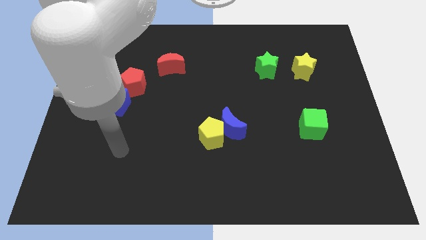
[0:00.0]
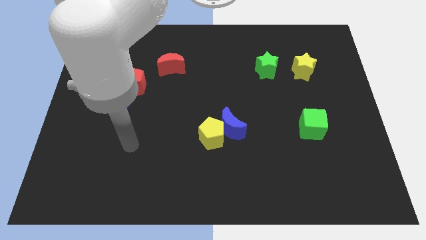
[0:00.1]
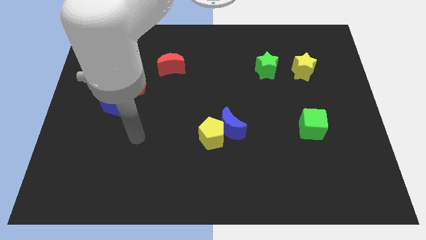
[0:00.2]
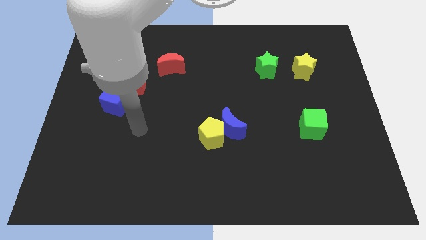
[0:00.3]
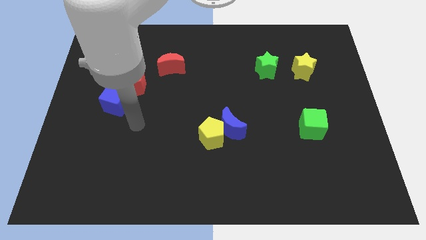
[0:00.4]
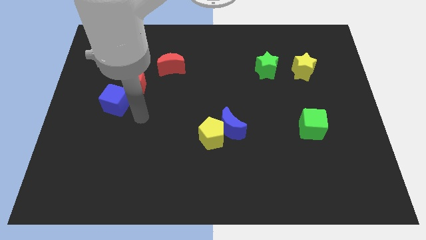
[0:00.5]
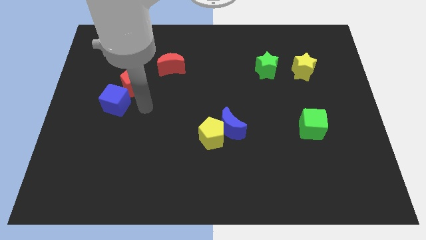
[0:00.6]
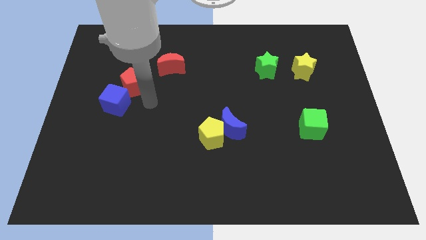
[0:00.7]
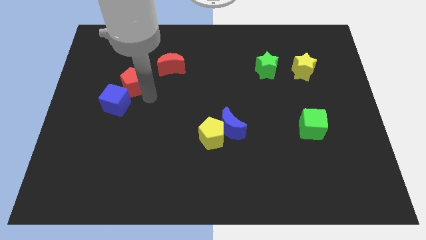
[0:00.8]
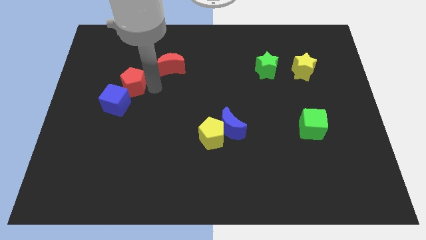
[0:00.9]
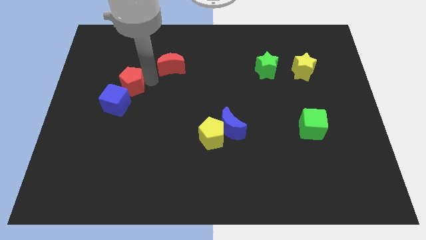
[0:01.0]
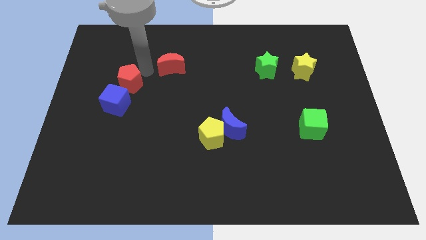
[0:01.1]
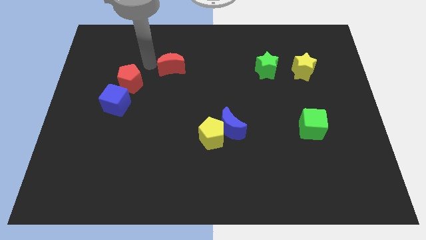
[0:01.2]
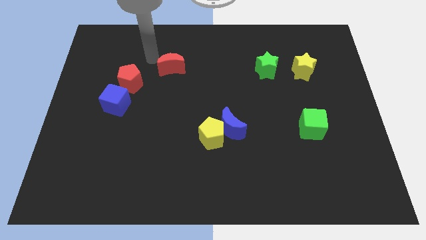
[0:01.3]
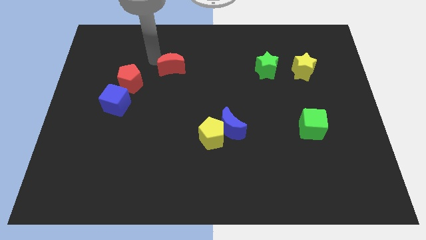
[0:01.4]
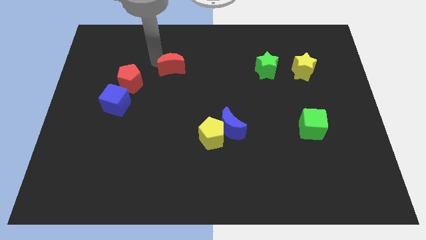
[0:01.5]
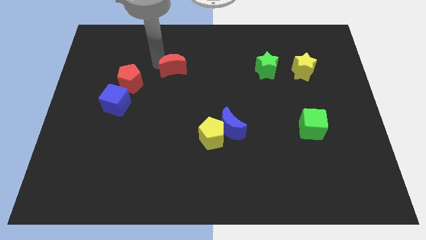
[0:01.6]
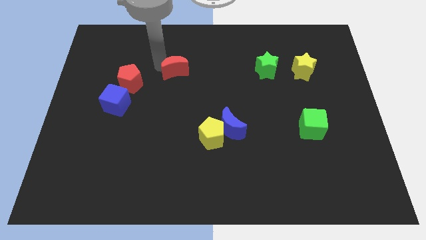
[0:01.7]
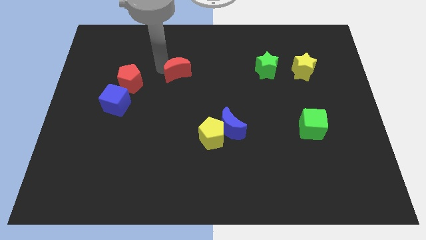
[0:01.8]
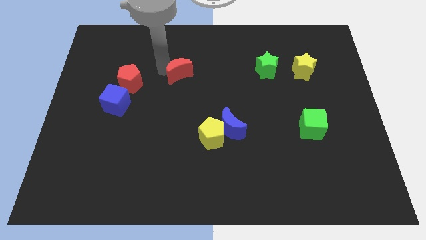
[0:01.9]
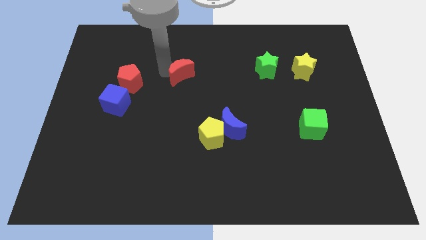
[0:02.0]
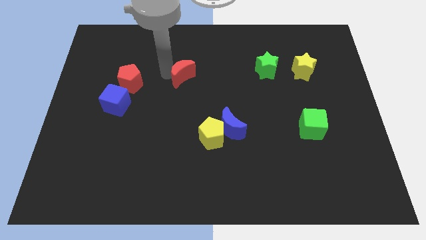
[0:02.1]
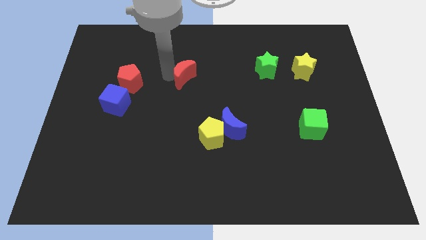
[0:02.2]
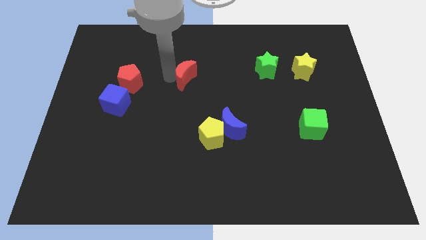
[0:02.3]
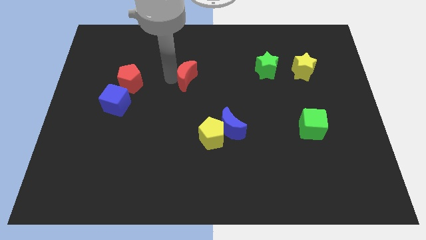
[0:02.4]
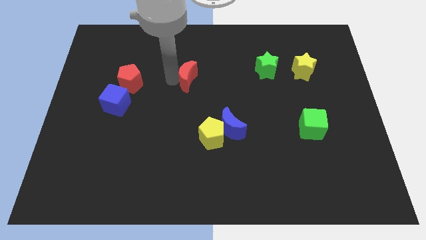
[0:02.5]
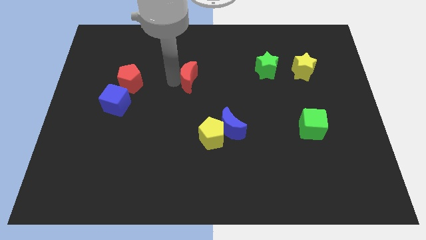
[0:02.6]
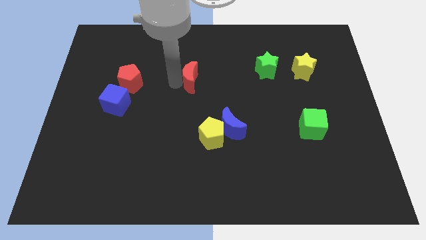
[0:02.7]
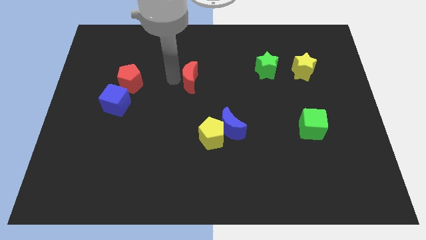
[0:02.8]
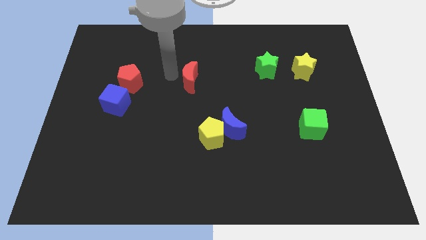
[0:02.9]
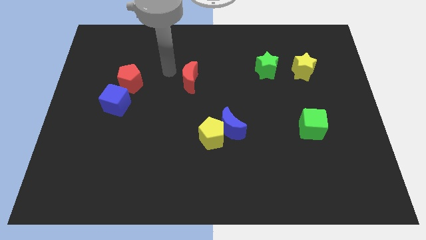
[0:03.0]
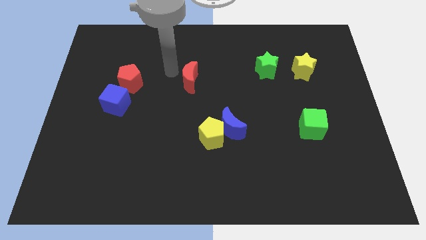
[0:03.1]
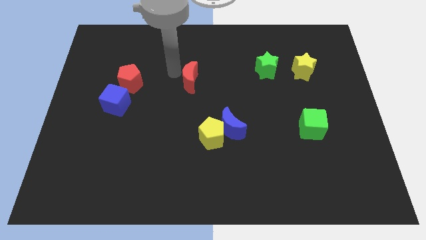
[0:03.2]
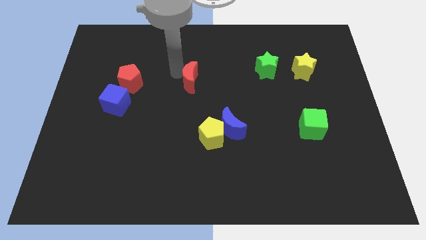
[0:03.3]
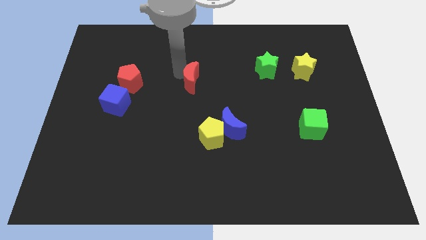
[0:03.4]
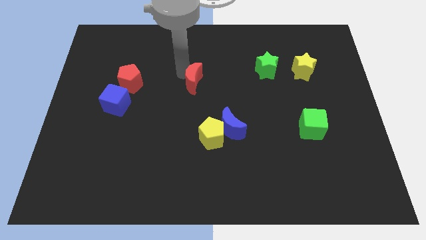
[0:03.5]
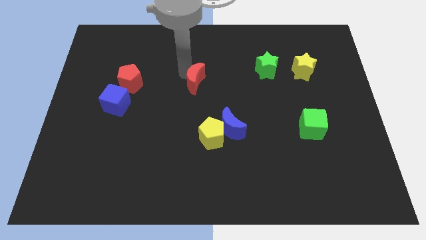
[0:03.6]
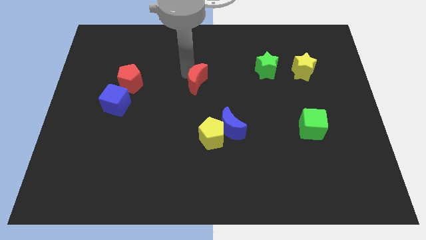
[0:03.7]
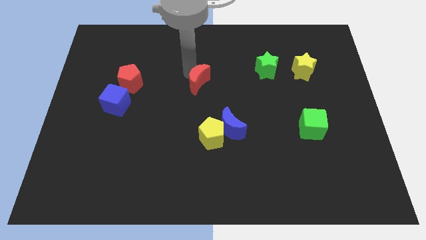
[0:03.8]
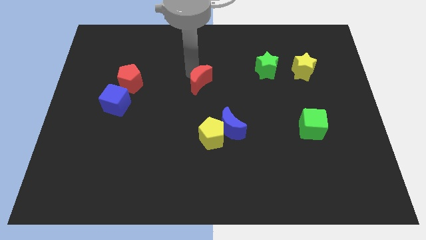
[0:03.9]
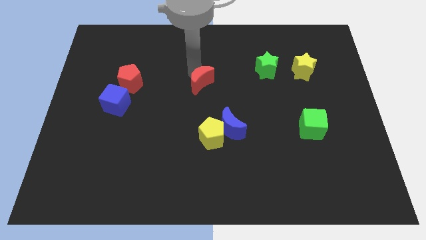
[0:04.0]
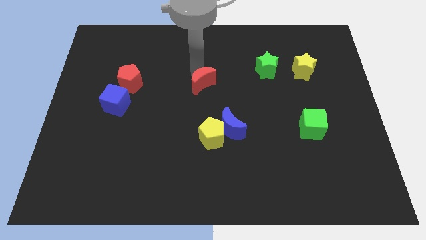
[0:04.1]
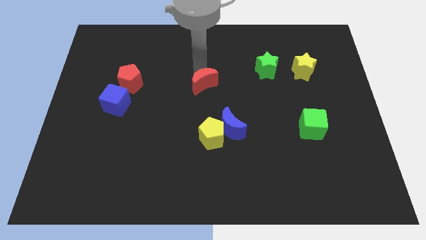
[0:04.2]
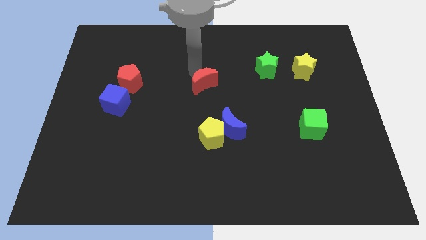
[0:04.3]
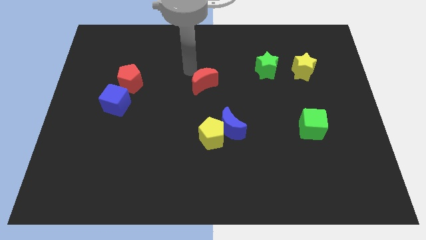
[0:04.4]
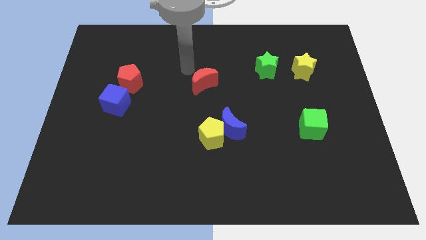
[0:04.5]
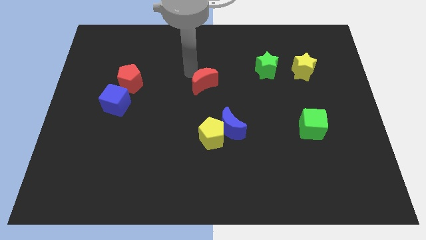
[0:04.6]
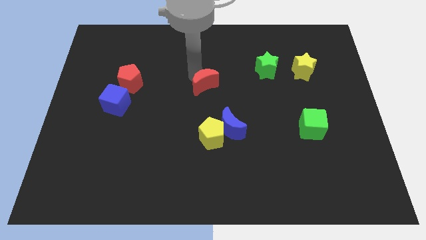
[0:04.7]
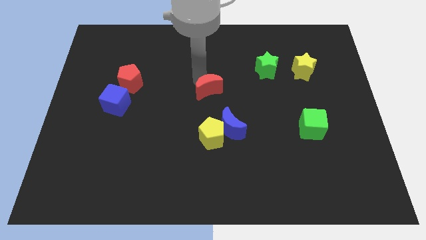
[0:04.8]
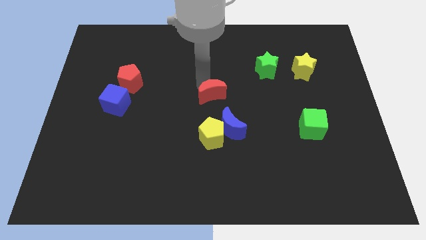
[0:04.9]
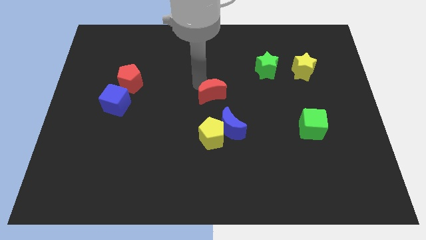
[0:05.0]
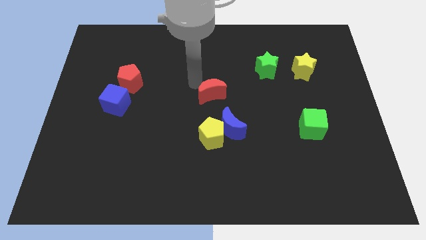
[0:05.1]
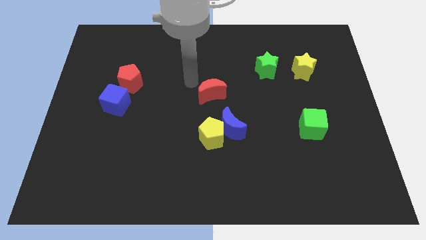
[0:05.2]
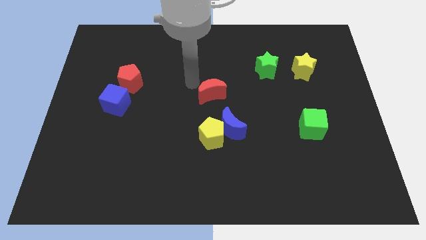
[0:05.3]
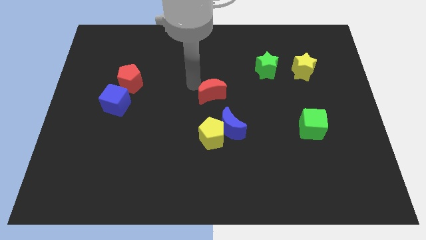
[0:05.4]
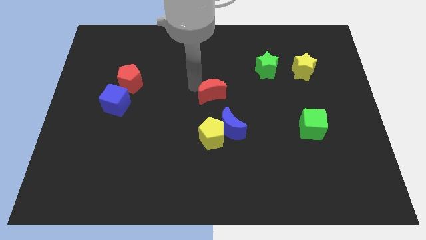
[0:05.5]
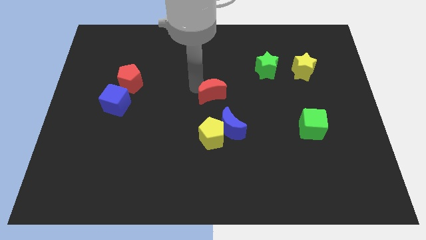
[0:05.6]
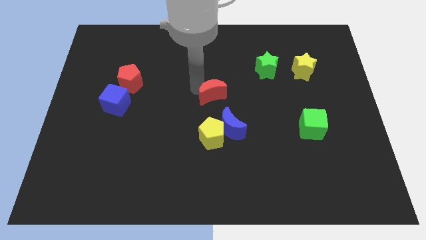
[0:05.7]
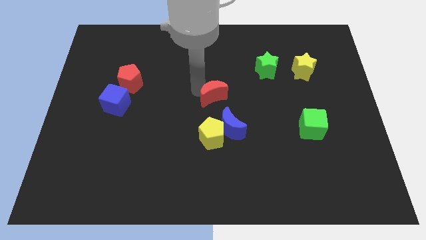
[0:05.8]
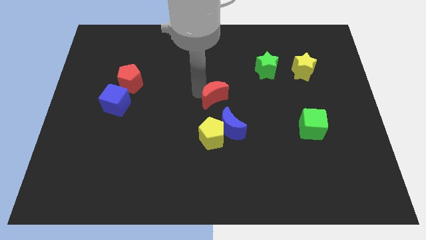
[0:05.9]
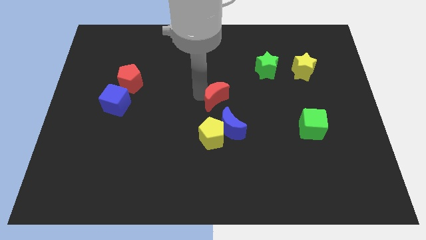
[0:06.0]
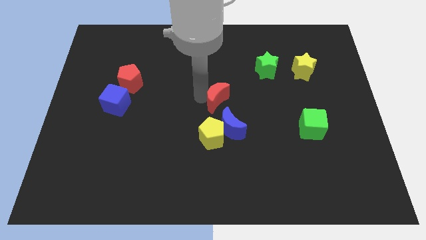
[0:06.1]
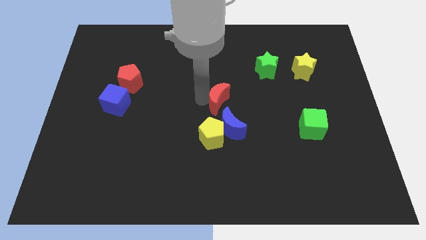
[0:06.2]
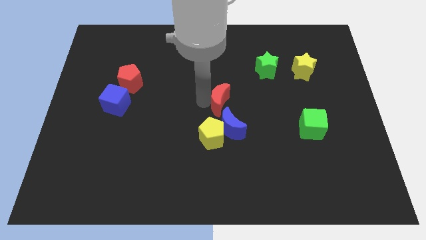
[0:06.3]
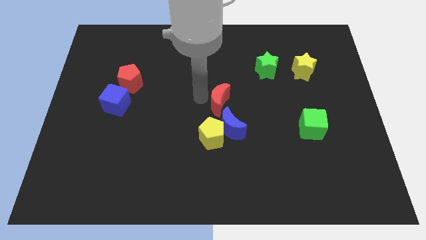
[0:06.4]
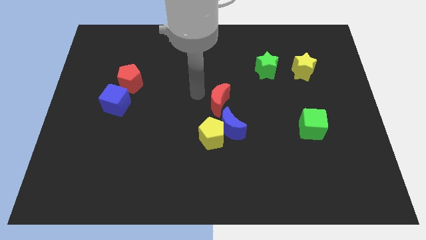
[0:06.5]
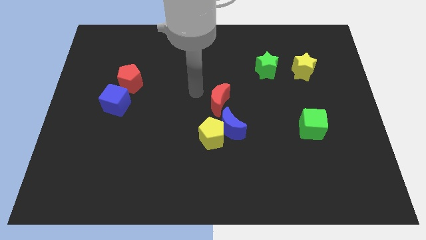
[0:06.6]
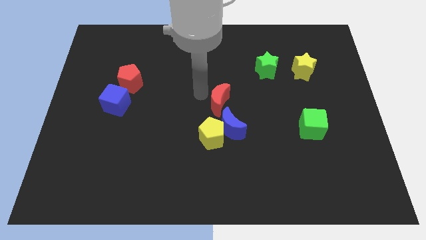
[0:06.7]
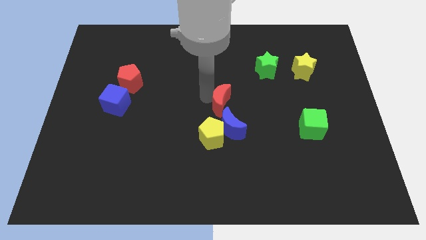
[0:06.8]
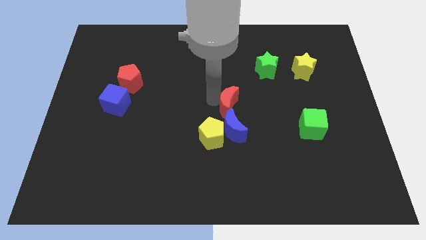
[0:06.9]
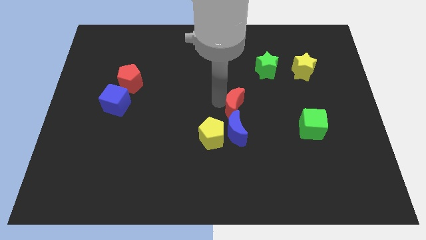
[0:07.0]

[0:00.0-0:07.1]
move the red moon down and to the right diagonally

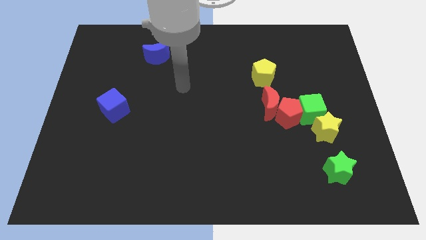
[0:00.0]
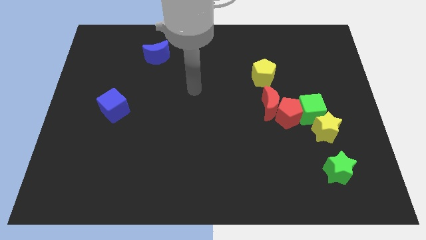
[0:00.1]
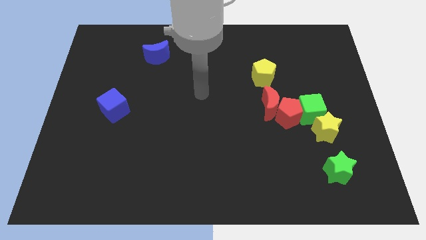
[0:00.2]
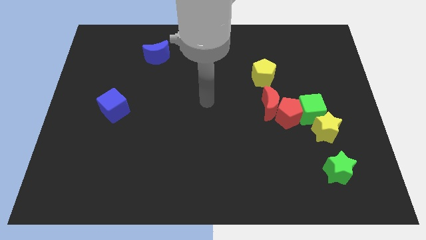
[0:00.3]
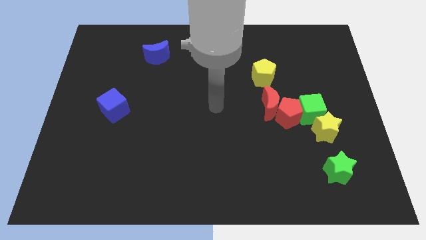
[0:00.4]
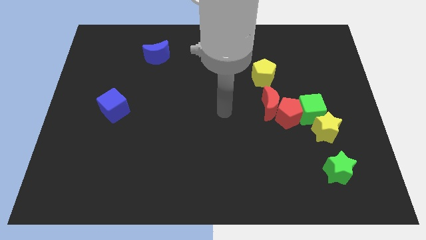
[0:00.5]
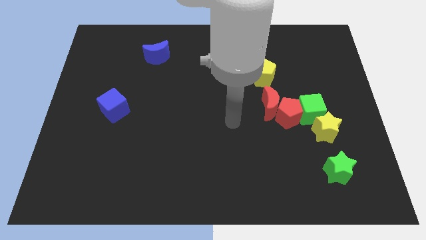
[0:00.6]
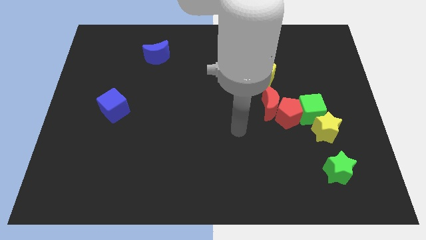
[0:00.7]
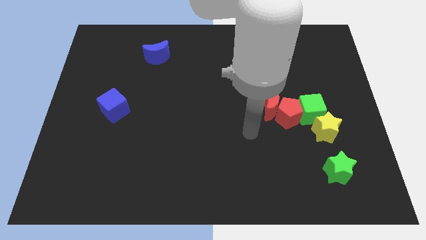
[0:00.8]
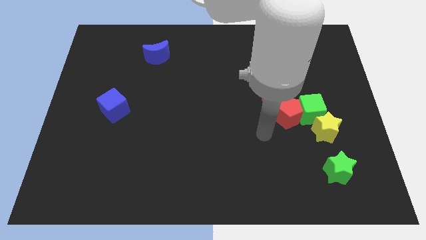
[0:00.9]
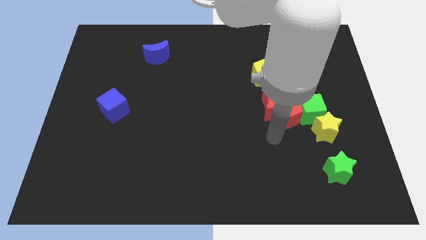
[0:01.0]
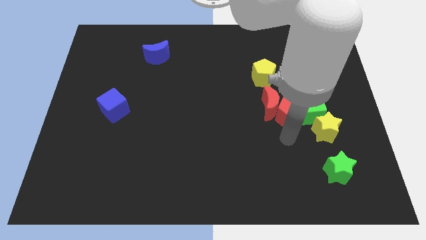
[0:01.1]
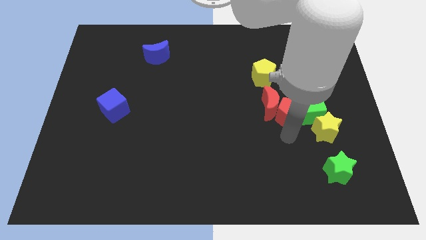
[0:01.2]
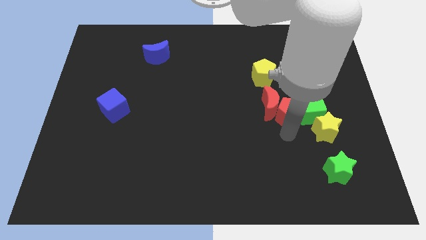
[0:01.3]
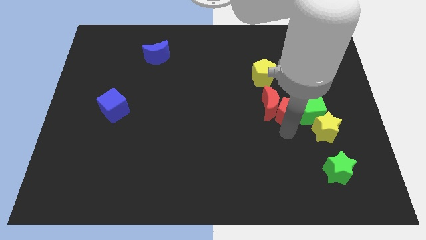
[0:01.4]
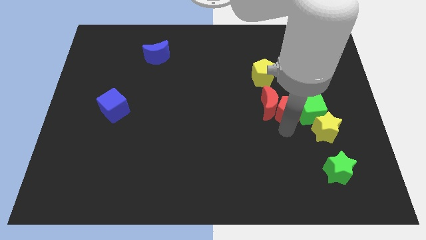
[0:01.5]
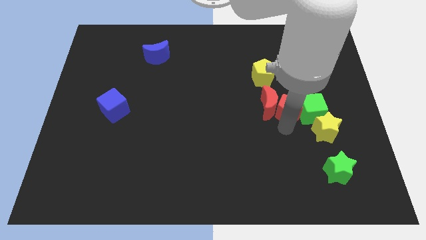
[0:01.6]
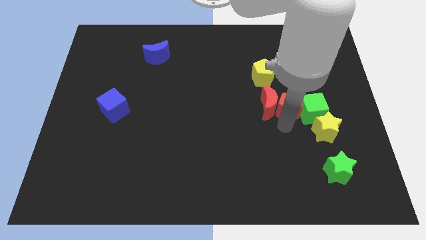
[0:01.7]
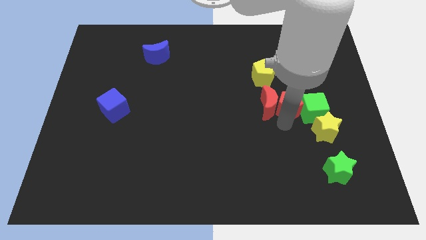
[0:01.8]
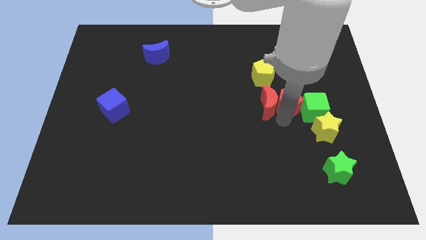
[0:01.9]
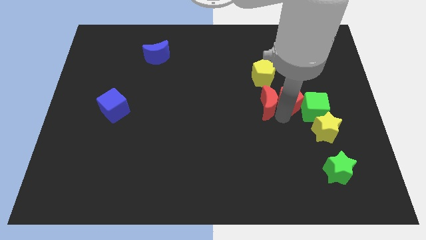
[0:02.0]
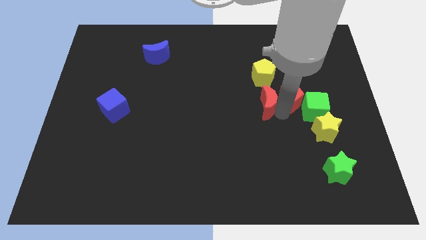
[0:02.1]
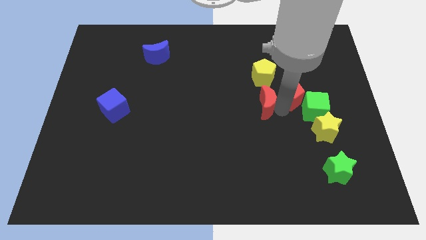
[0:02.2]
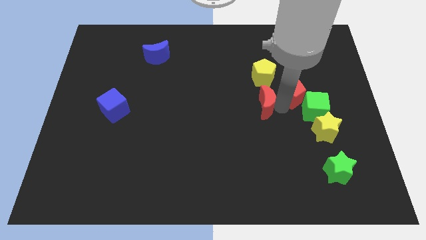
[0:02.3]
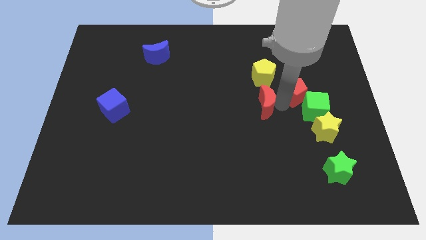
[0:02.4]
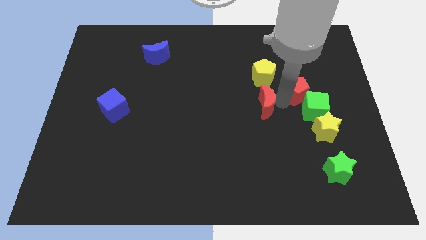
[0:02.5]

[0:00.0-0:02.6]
slightly push the red pentagon upwards
